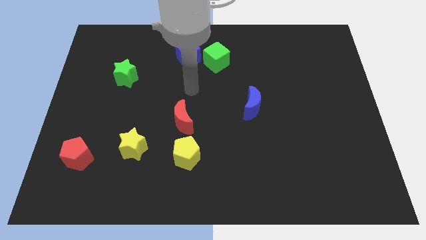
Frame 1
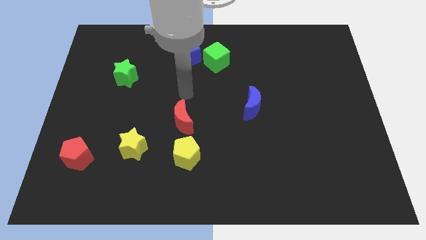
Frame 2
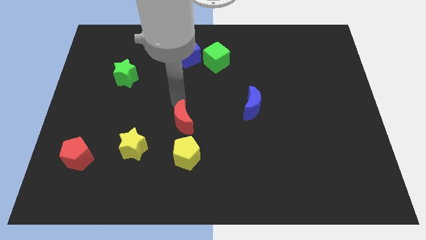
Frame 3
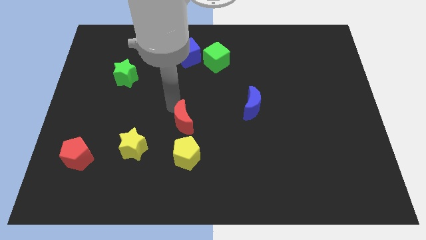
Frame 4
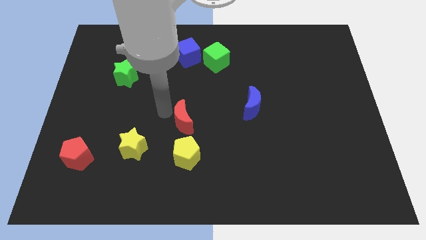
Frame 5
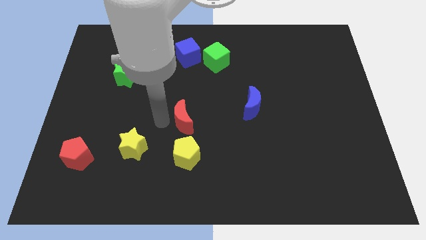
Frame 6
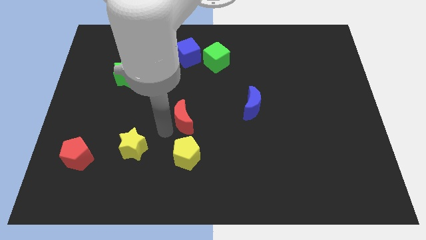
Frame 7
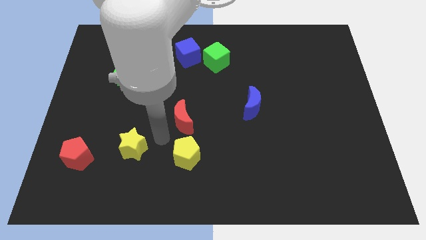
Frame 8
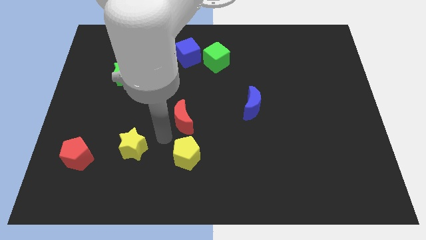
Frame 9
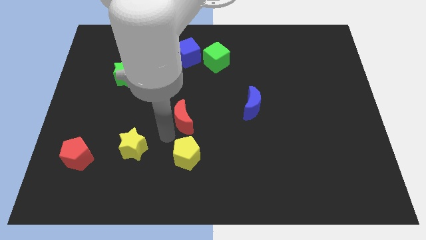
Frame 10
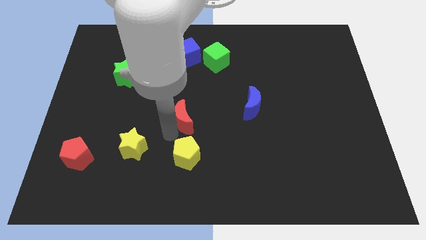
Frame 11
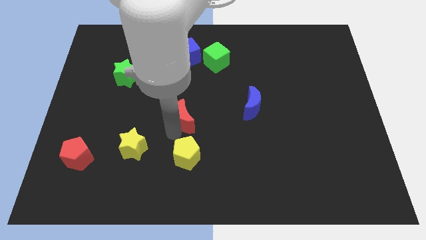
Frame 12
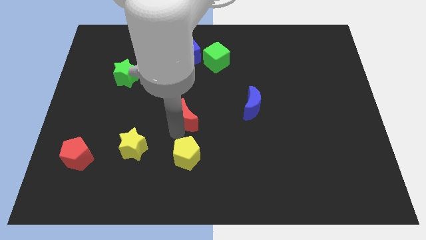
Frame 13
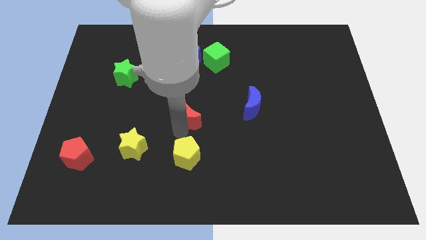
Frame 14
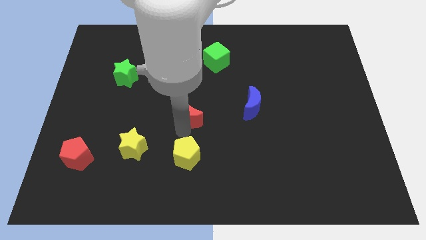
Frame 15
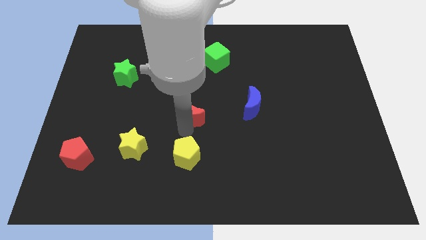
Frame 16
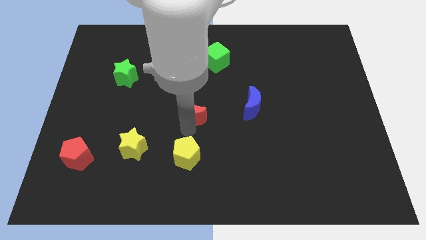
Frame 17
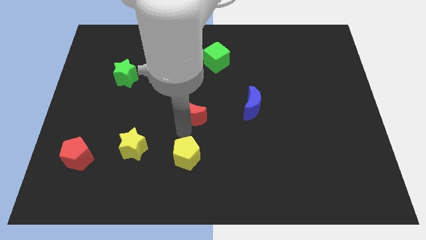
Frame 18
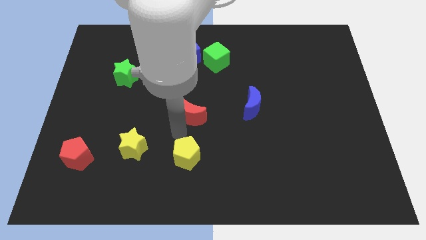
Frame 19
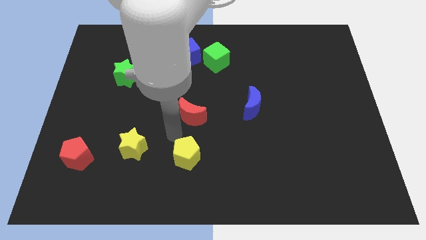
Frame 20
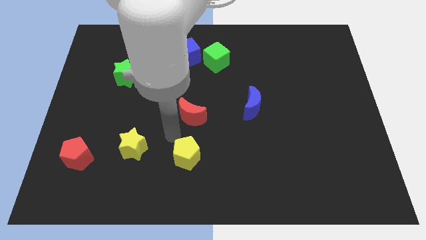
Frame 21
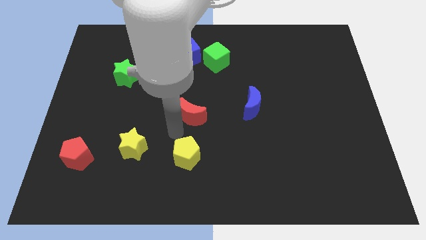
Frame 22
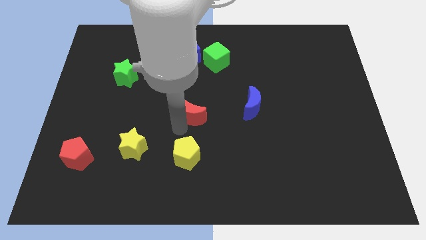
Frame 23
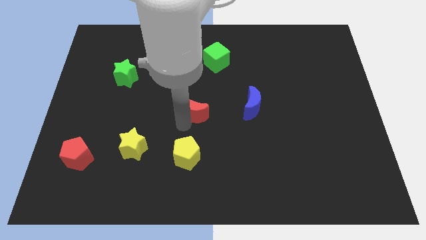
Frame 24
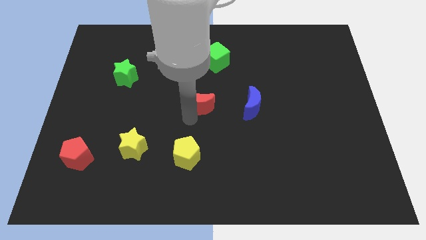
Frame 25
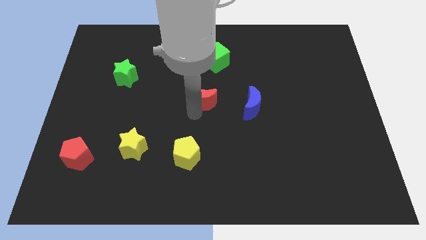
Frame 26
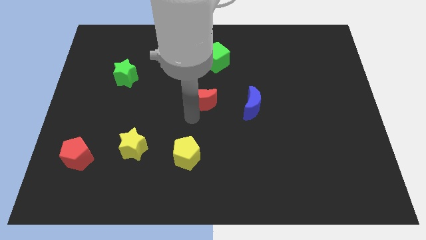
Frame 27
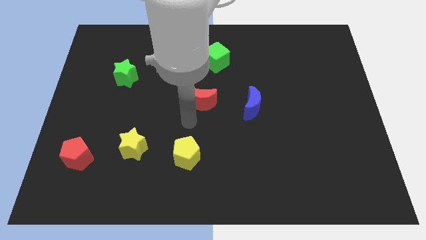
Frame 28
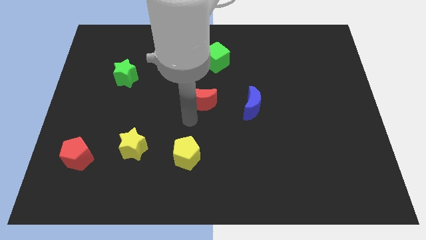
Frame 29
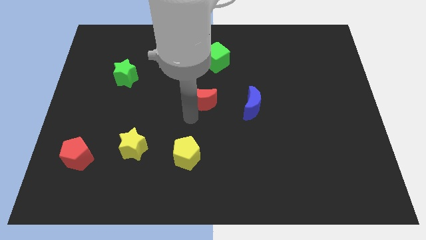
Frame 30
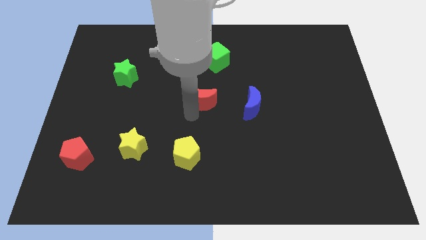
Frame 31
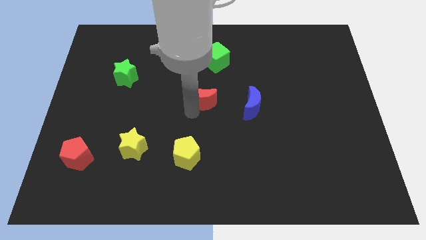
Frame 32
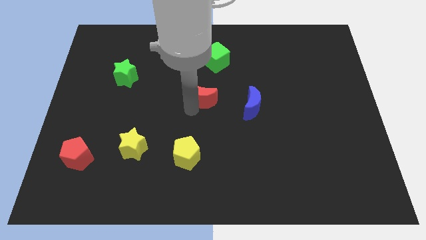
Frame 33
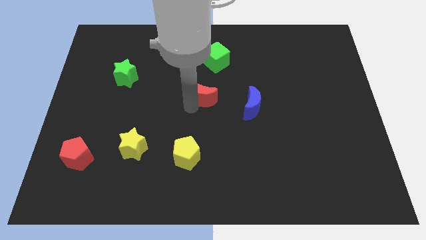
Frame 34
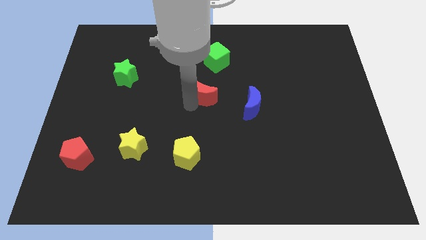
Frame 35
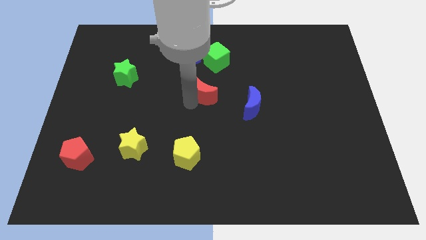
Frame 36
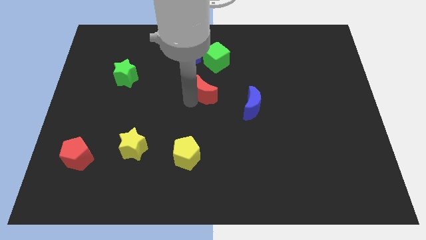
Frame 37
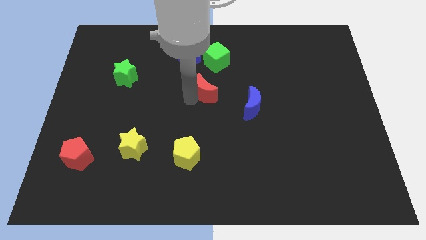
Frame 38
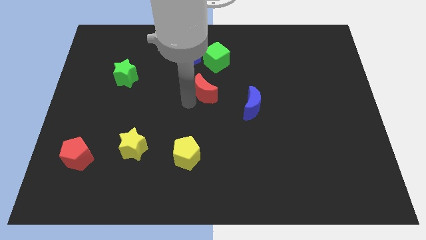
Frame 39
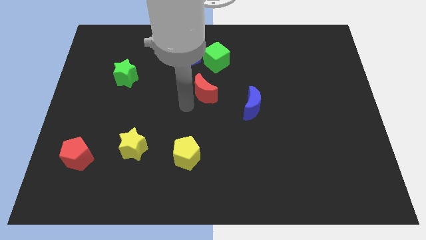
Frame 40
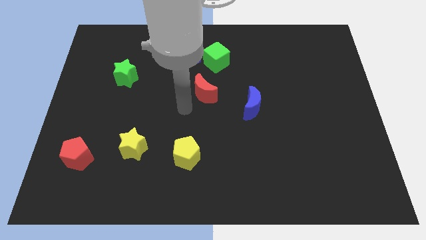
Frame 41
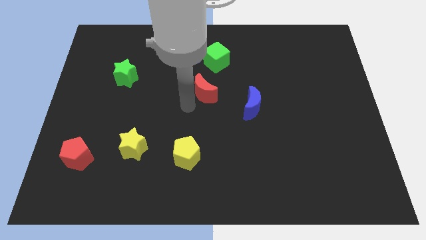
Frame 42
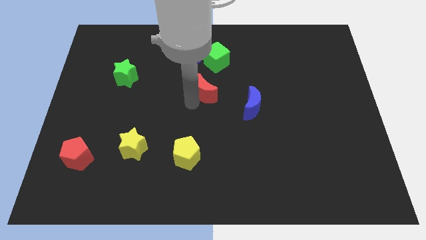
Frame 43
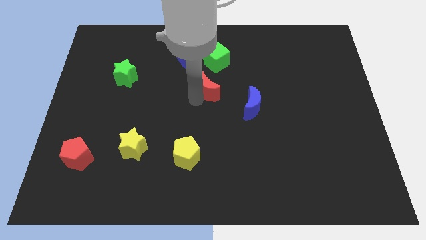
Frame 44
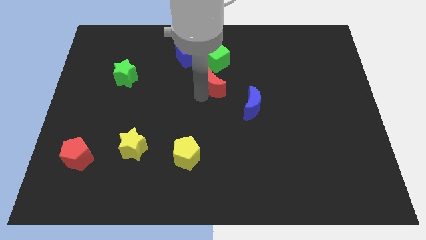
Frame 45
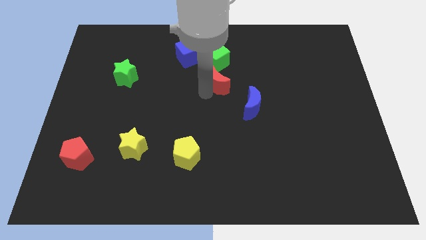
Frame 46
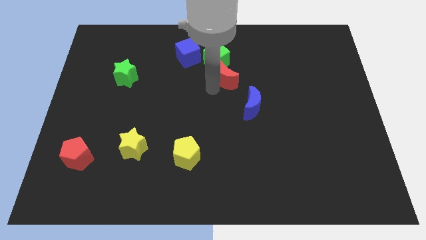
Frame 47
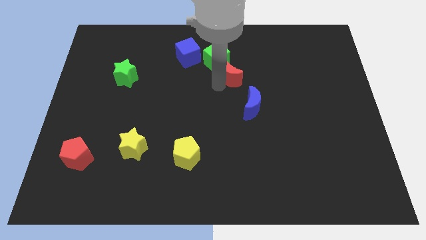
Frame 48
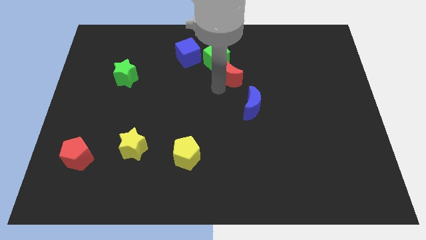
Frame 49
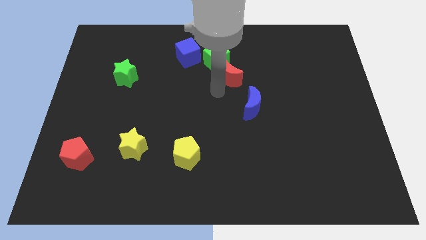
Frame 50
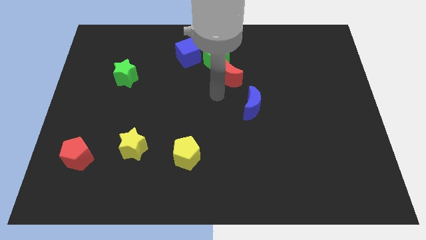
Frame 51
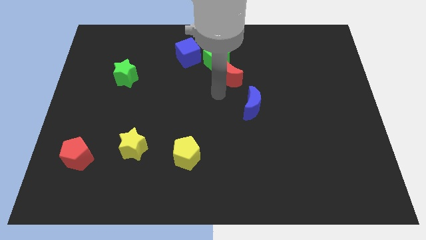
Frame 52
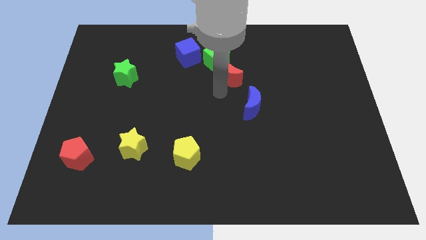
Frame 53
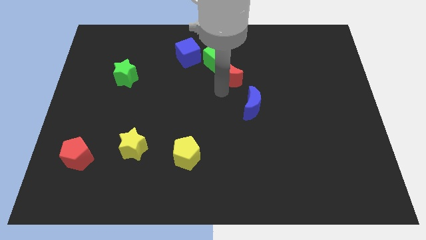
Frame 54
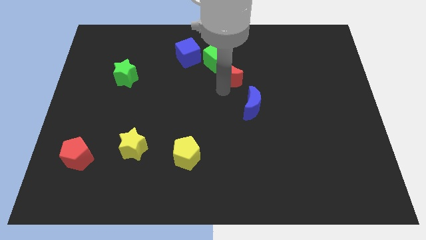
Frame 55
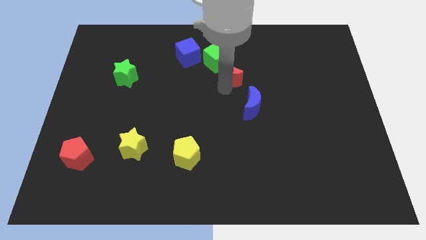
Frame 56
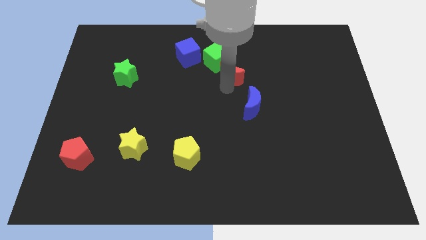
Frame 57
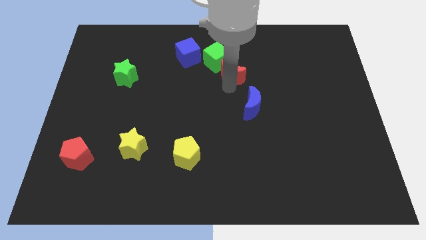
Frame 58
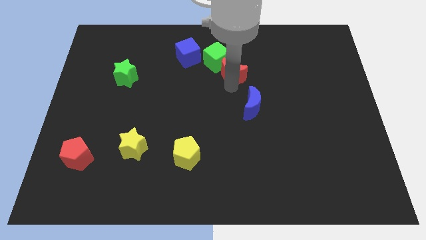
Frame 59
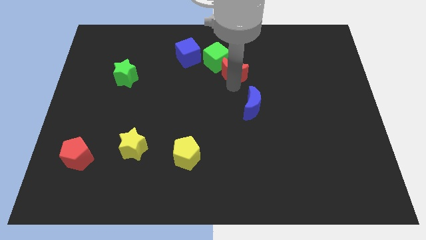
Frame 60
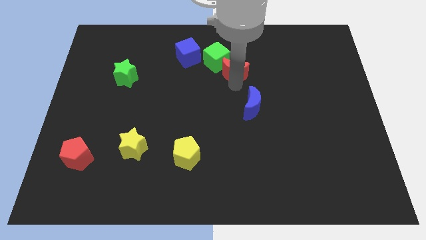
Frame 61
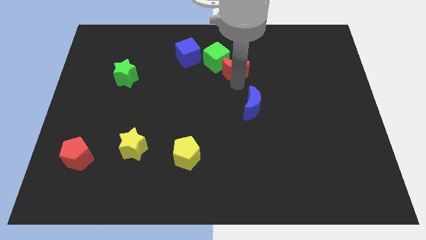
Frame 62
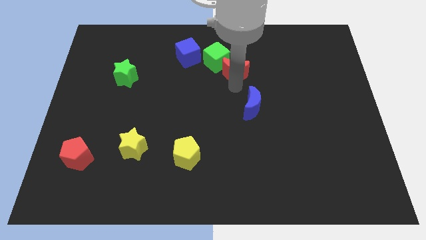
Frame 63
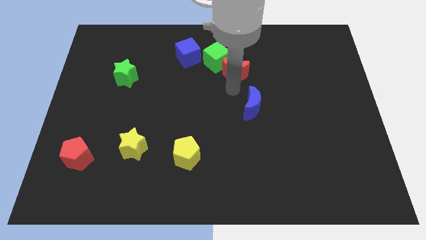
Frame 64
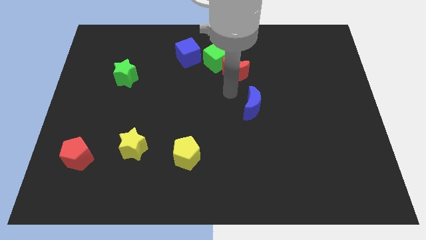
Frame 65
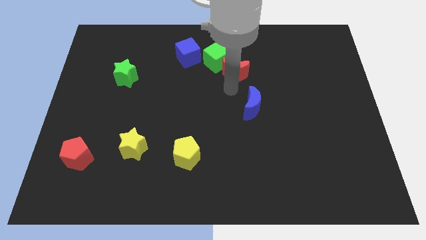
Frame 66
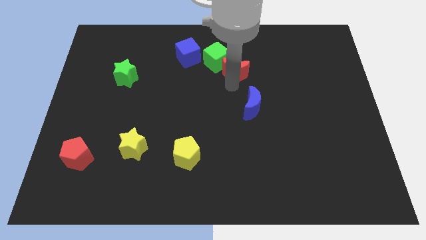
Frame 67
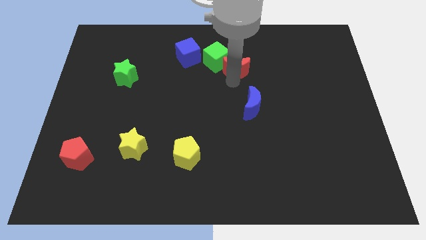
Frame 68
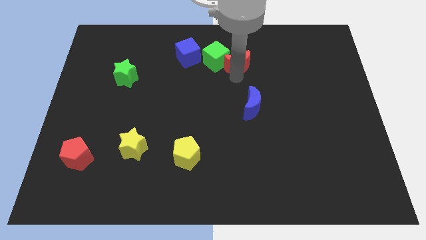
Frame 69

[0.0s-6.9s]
put the red moon to the right side of the blue cube

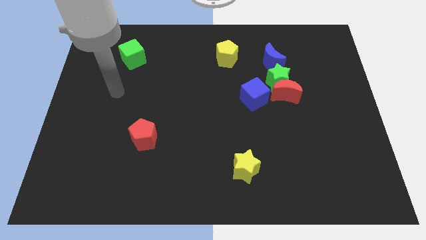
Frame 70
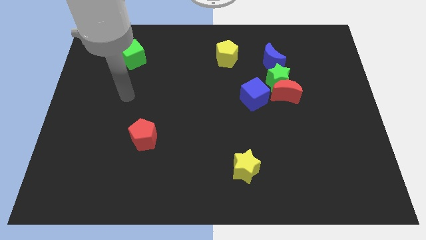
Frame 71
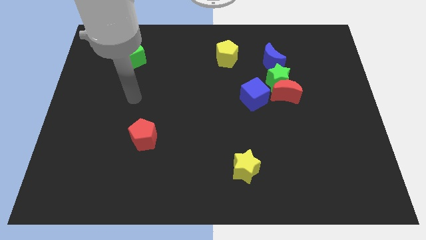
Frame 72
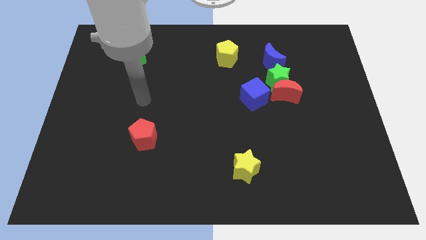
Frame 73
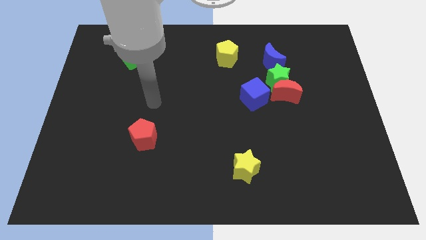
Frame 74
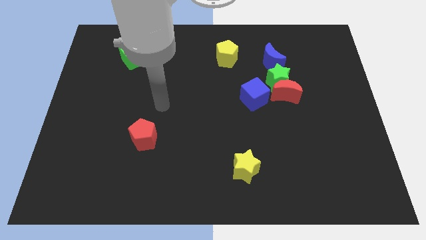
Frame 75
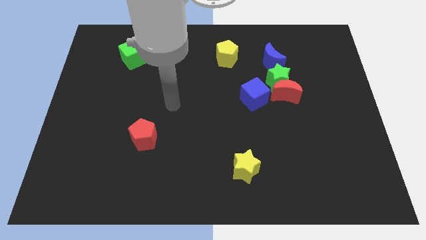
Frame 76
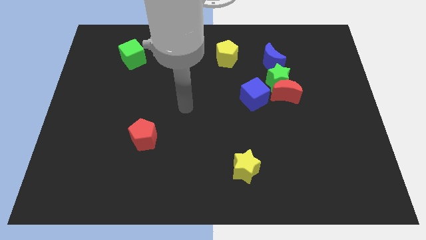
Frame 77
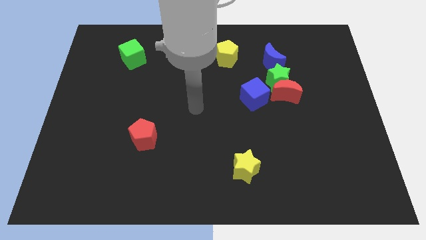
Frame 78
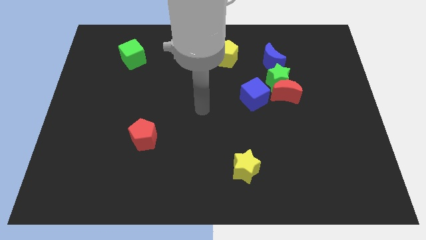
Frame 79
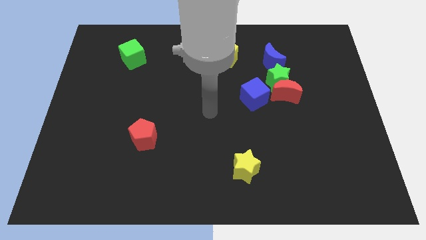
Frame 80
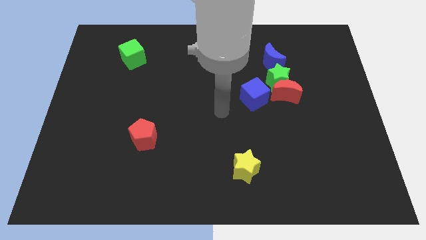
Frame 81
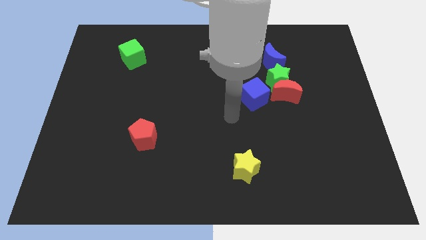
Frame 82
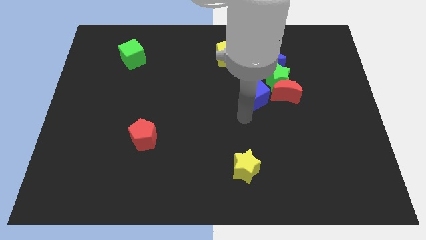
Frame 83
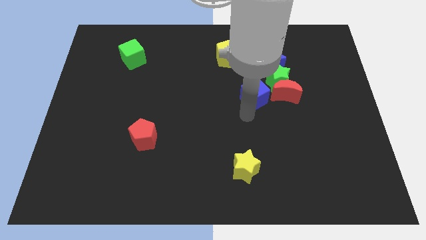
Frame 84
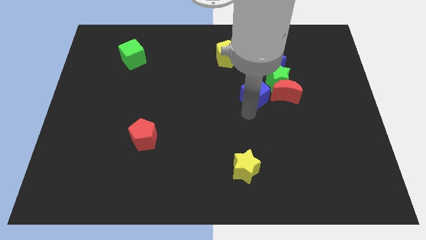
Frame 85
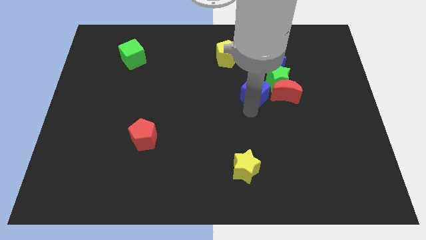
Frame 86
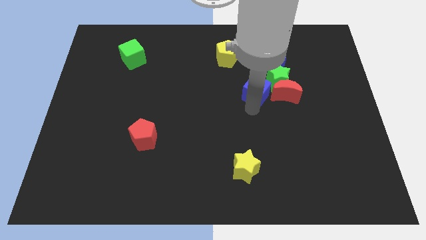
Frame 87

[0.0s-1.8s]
slide the blue cube to the top left side of the red moon
